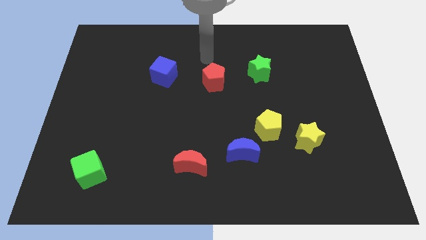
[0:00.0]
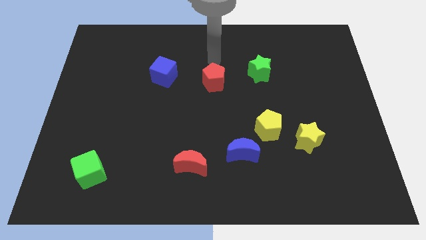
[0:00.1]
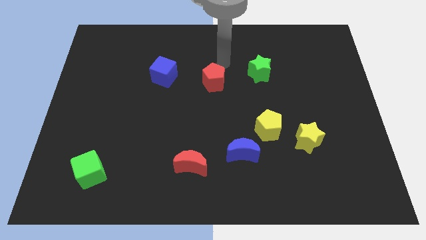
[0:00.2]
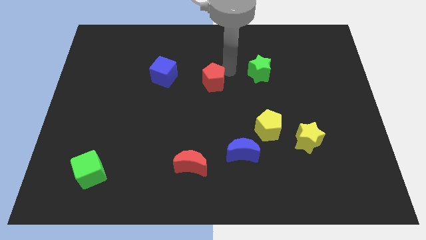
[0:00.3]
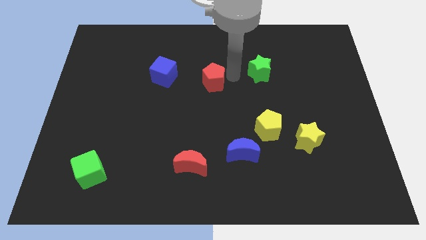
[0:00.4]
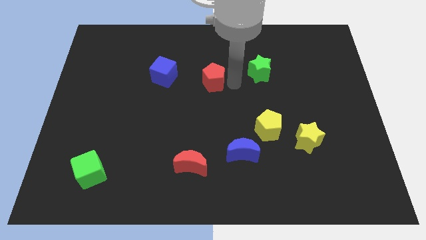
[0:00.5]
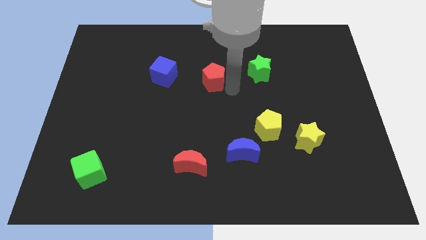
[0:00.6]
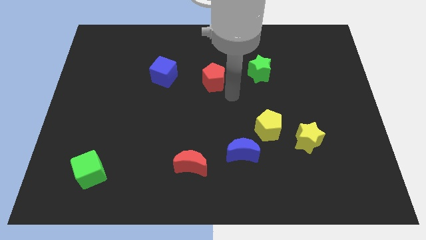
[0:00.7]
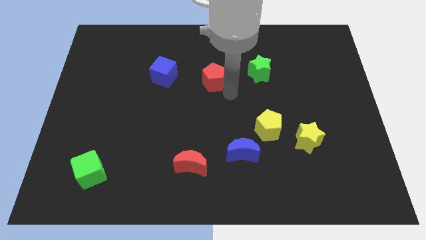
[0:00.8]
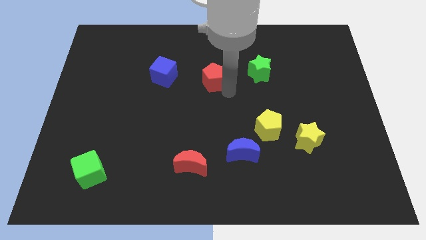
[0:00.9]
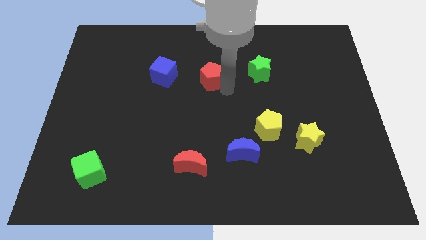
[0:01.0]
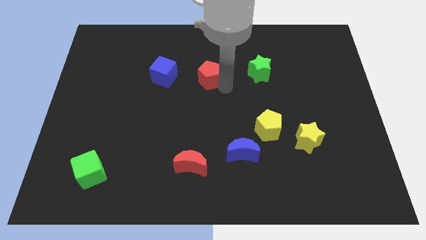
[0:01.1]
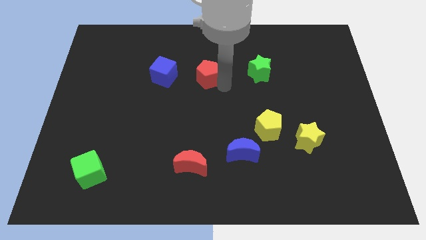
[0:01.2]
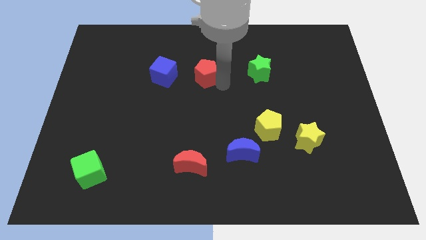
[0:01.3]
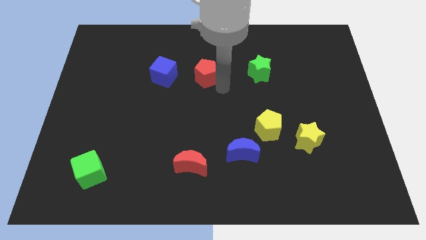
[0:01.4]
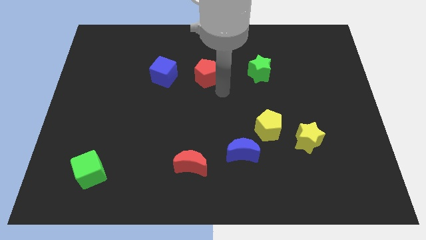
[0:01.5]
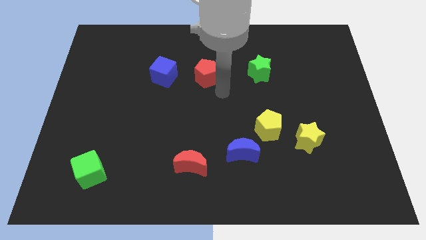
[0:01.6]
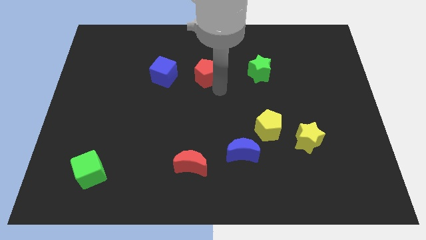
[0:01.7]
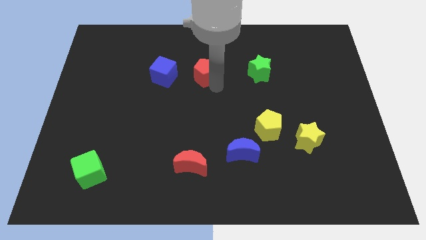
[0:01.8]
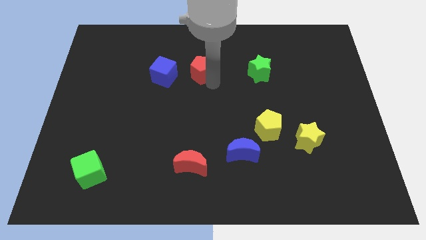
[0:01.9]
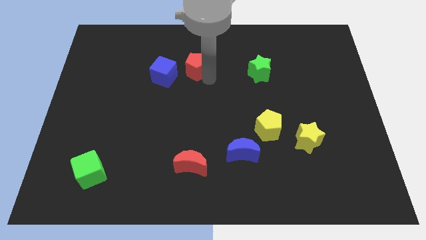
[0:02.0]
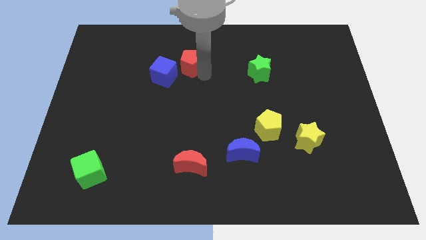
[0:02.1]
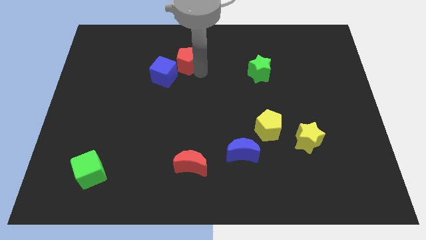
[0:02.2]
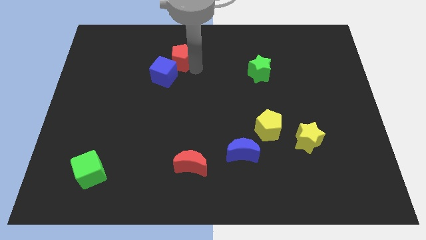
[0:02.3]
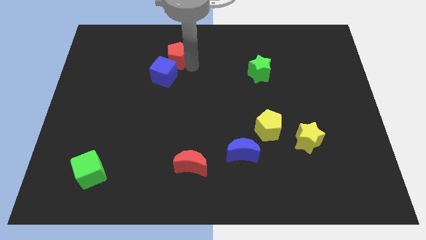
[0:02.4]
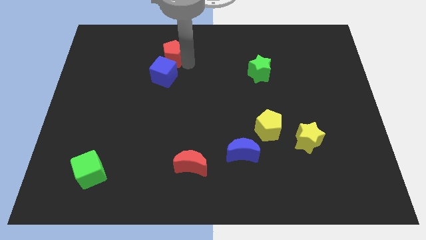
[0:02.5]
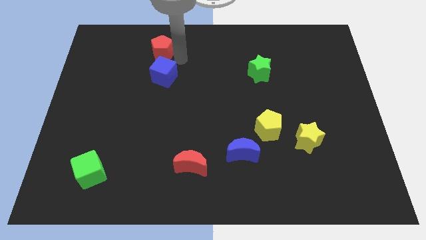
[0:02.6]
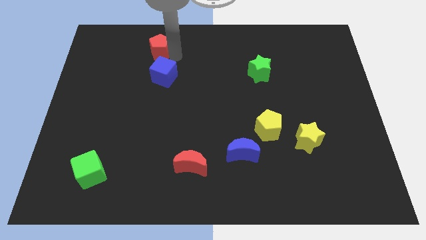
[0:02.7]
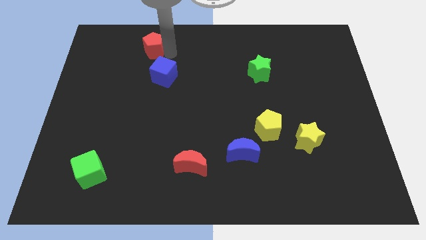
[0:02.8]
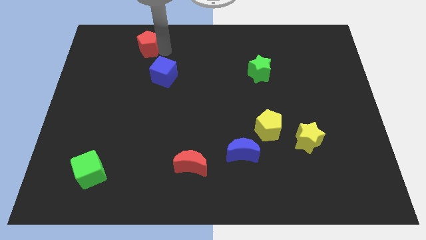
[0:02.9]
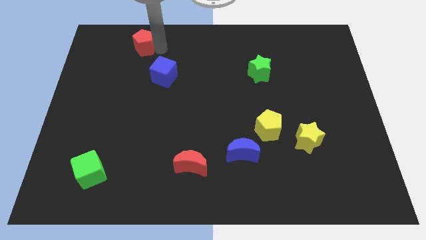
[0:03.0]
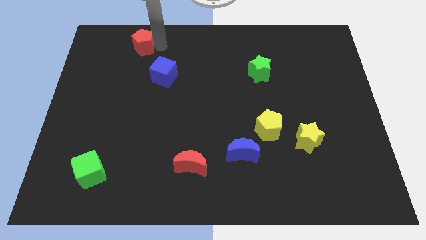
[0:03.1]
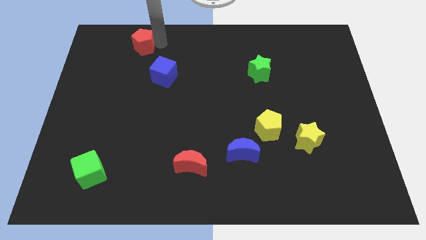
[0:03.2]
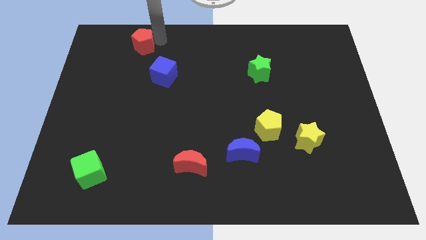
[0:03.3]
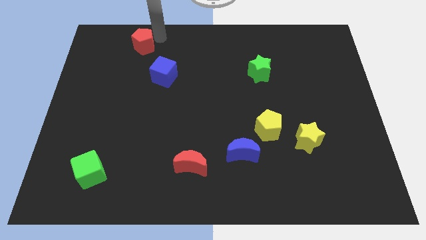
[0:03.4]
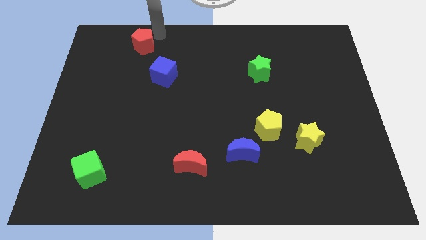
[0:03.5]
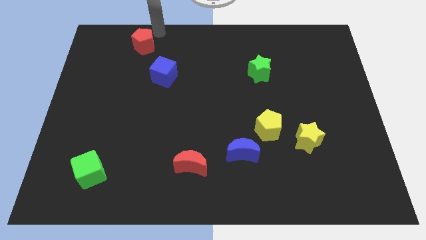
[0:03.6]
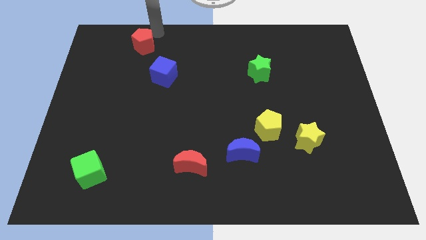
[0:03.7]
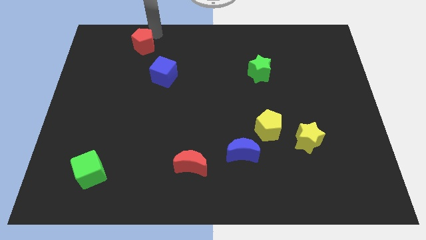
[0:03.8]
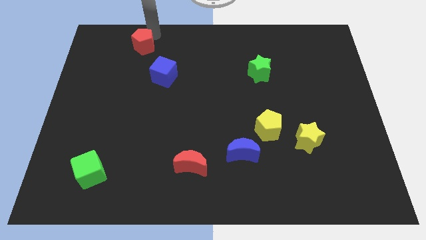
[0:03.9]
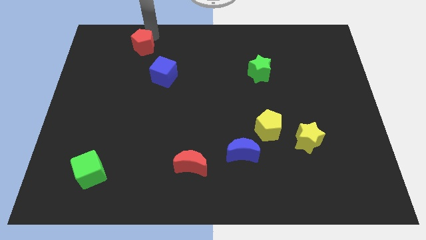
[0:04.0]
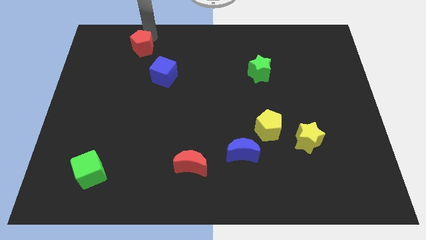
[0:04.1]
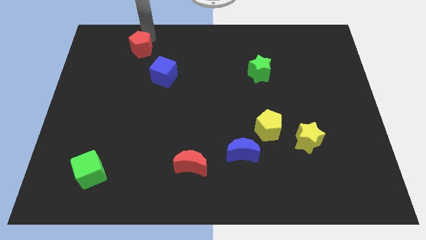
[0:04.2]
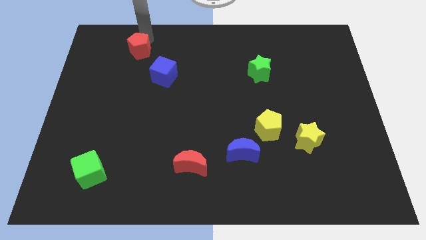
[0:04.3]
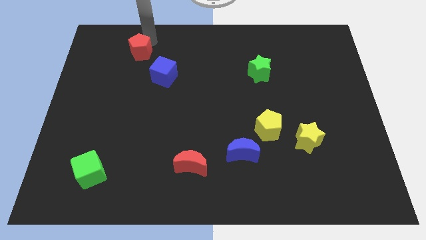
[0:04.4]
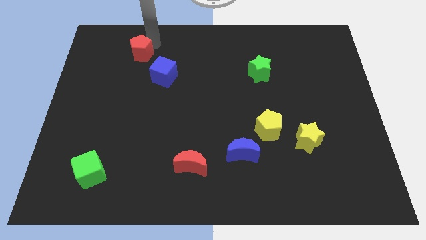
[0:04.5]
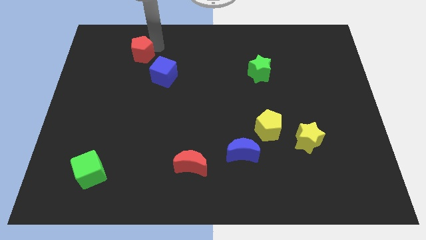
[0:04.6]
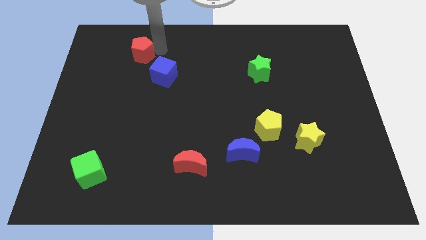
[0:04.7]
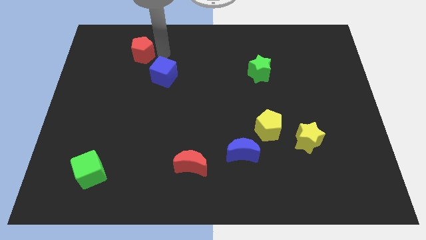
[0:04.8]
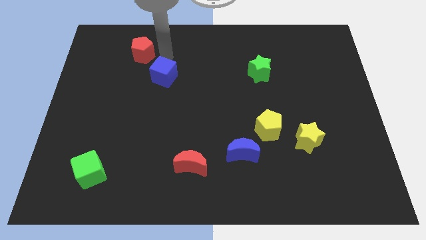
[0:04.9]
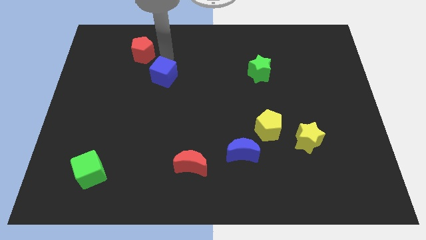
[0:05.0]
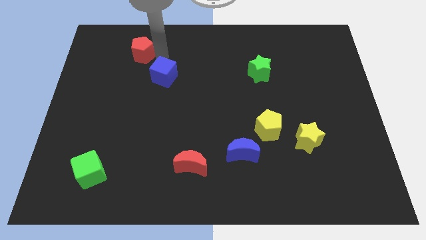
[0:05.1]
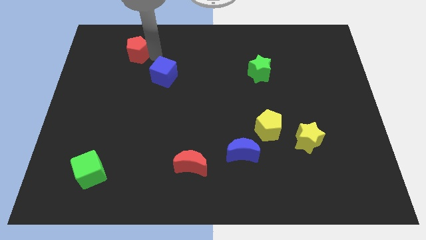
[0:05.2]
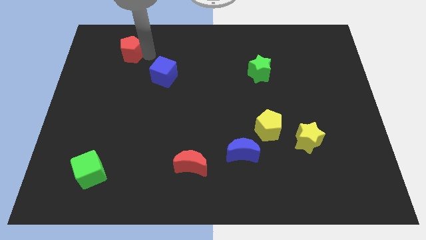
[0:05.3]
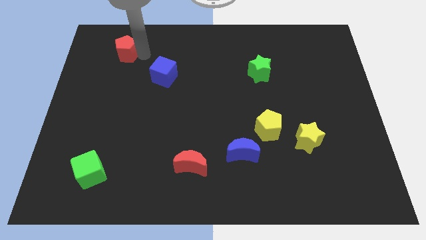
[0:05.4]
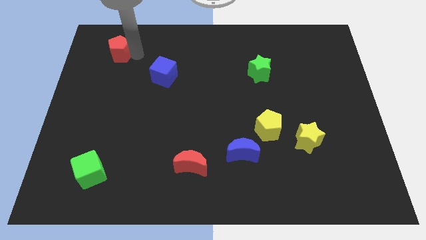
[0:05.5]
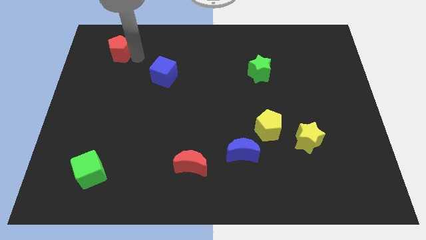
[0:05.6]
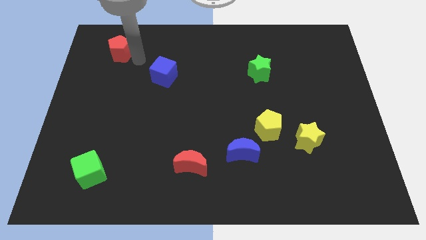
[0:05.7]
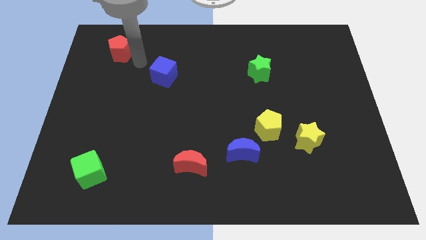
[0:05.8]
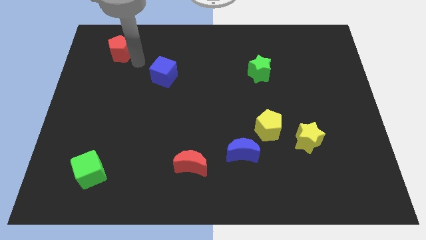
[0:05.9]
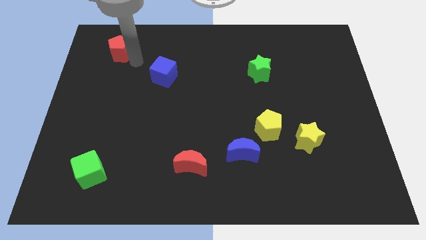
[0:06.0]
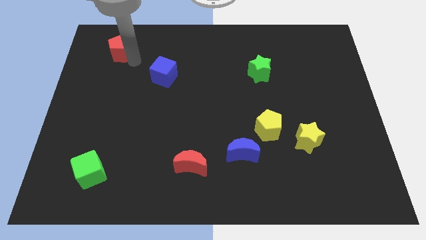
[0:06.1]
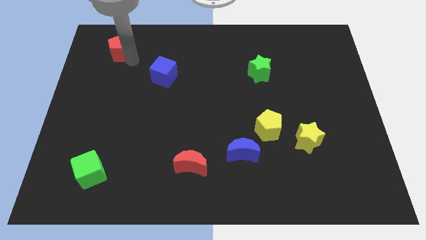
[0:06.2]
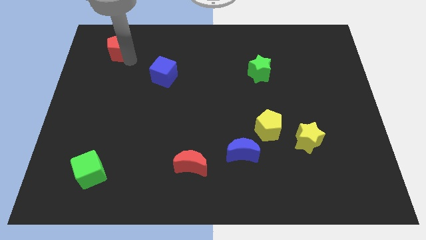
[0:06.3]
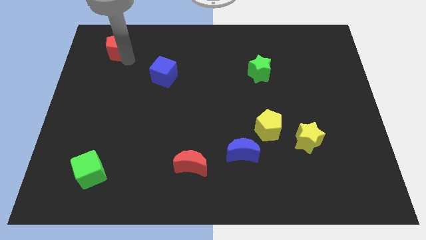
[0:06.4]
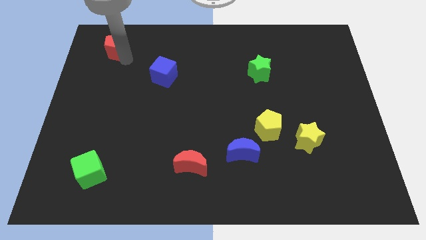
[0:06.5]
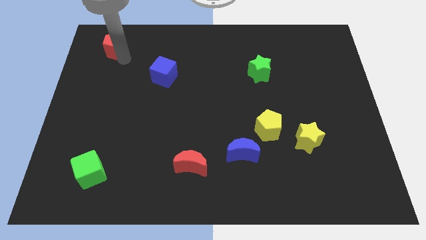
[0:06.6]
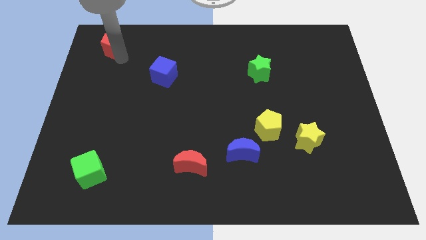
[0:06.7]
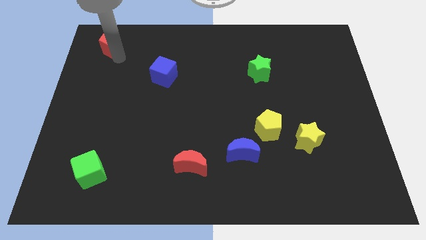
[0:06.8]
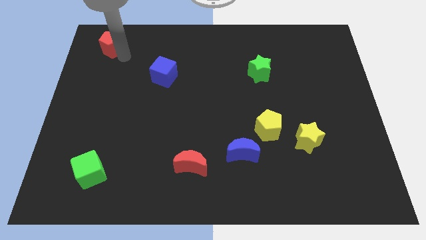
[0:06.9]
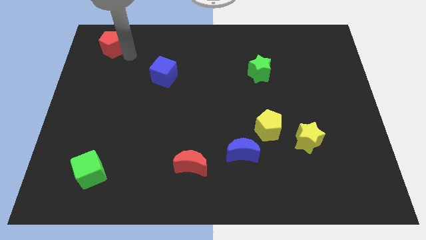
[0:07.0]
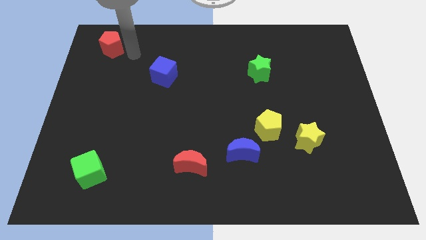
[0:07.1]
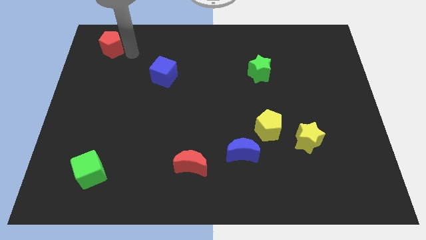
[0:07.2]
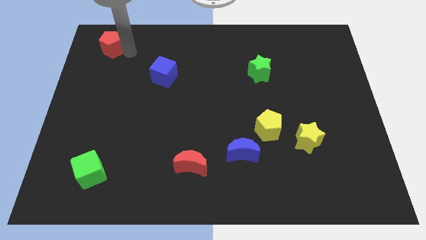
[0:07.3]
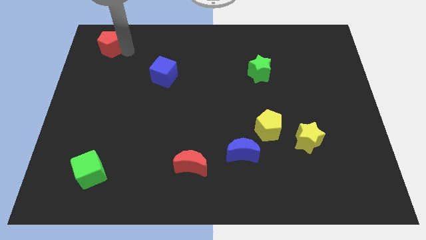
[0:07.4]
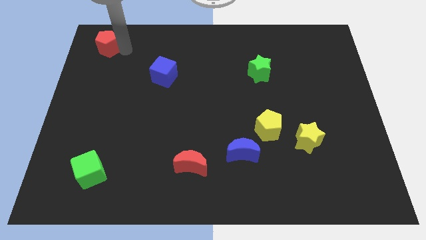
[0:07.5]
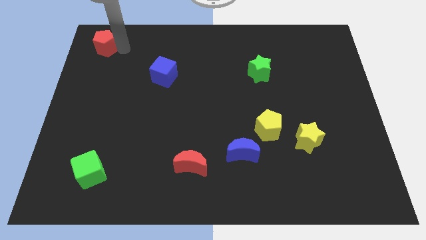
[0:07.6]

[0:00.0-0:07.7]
slide the red pentagon to the top left corner
